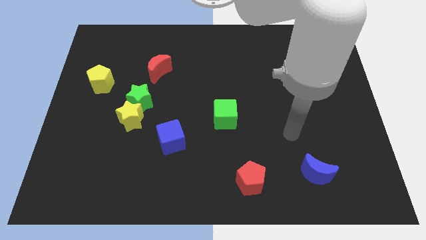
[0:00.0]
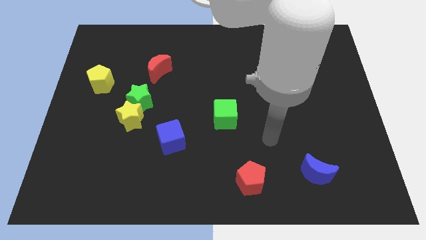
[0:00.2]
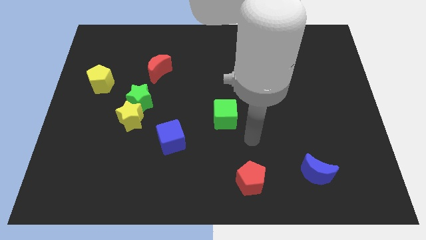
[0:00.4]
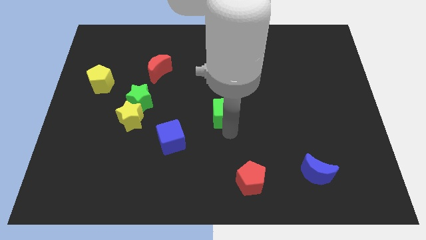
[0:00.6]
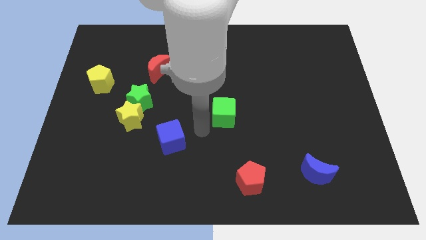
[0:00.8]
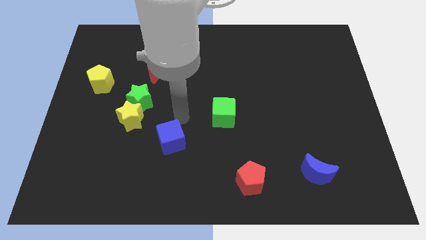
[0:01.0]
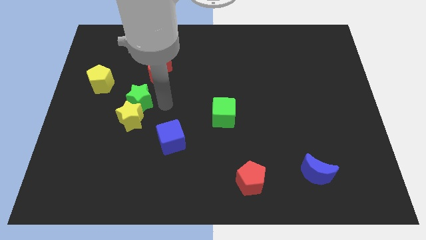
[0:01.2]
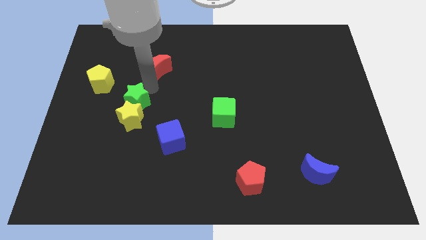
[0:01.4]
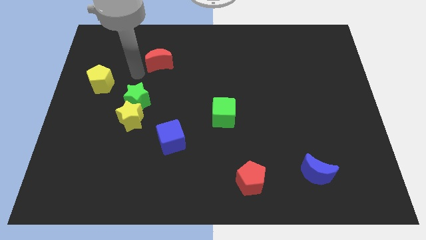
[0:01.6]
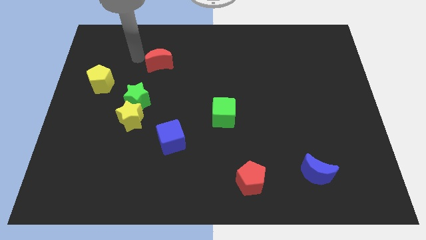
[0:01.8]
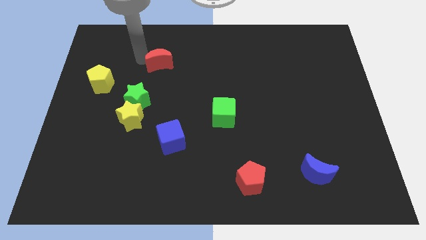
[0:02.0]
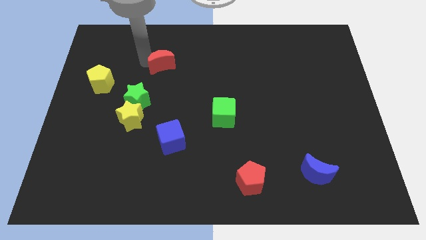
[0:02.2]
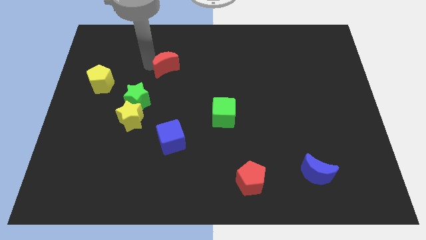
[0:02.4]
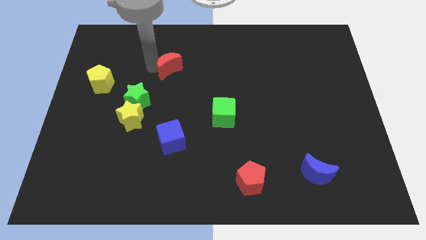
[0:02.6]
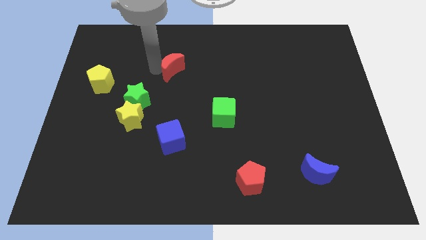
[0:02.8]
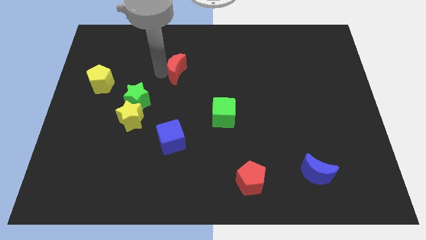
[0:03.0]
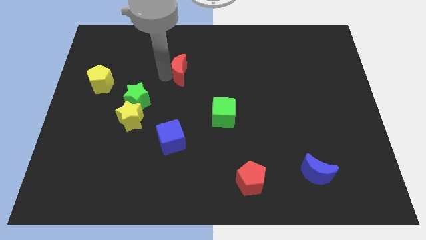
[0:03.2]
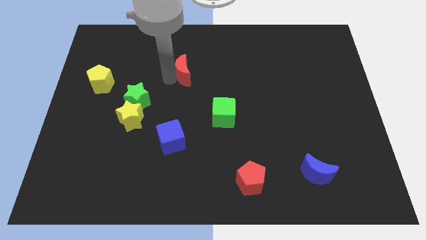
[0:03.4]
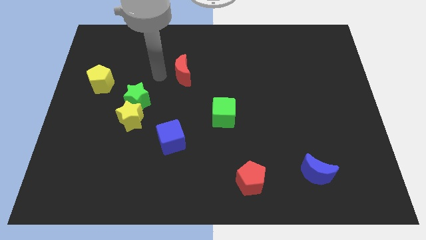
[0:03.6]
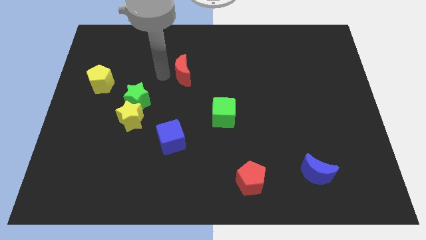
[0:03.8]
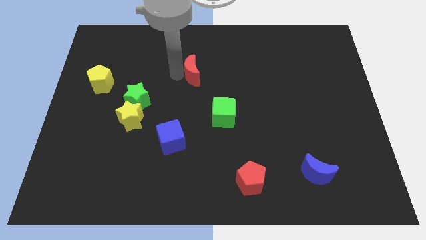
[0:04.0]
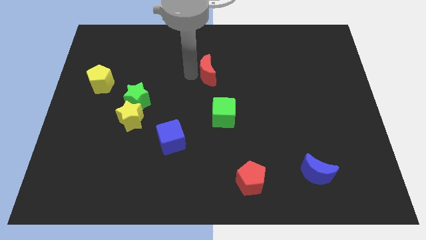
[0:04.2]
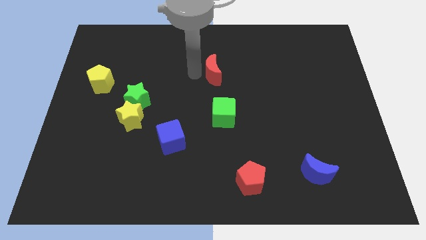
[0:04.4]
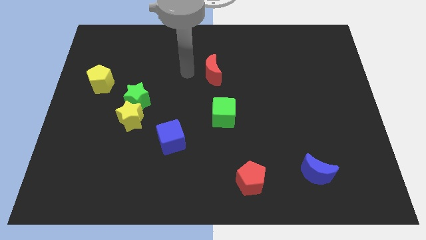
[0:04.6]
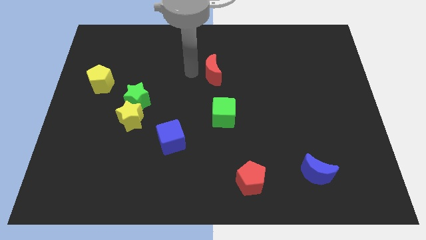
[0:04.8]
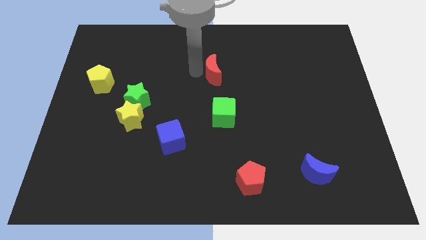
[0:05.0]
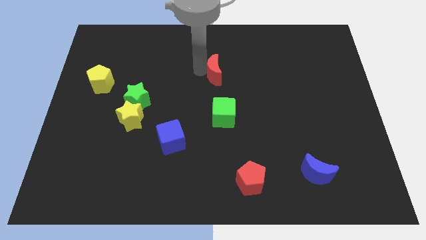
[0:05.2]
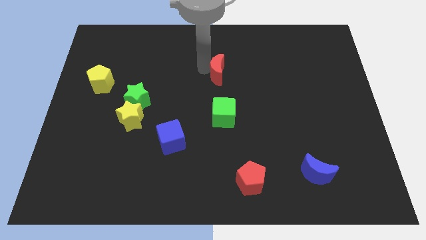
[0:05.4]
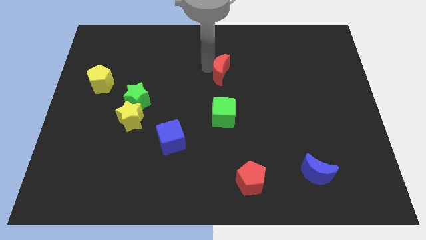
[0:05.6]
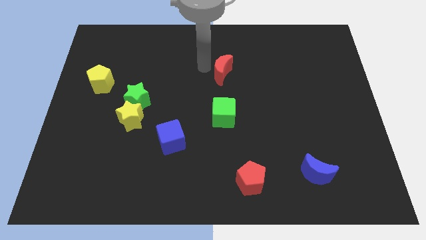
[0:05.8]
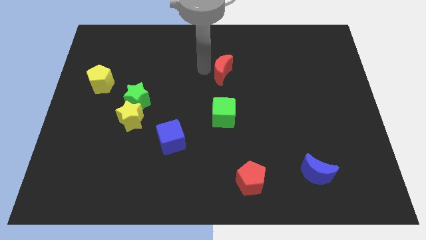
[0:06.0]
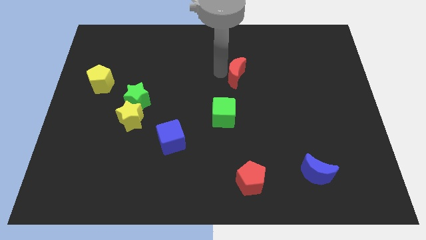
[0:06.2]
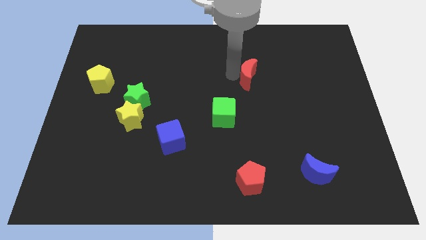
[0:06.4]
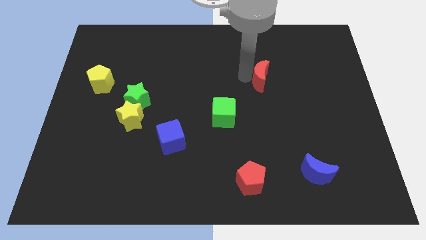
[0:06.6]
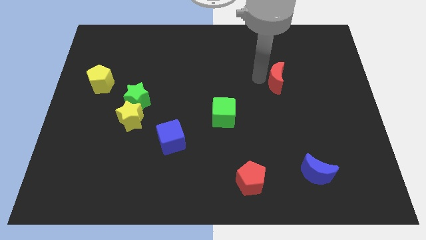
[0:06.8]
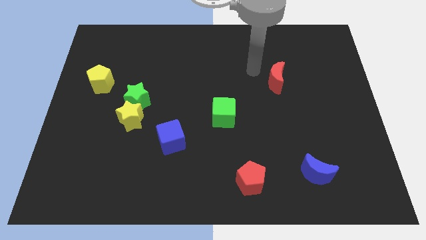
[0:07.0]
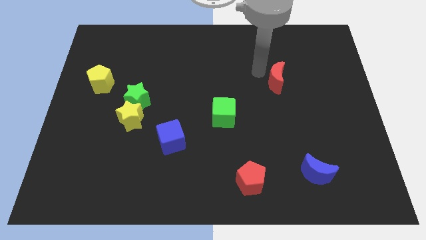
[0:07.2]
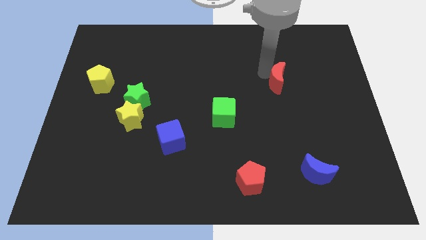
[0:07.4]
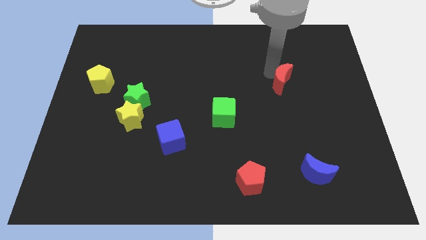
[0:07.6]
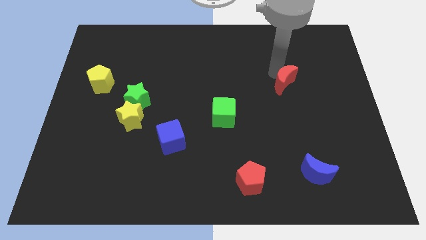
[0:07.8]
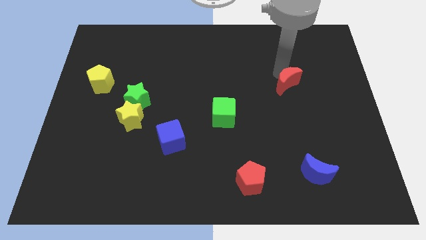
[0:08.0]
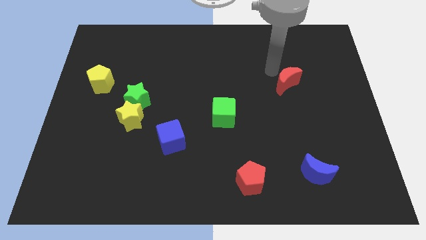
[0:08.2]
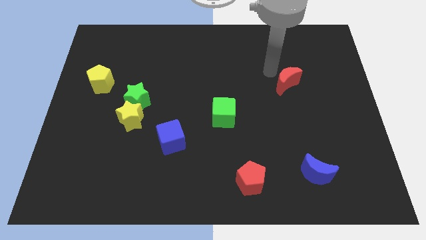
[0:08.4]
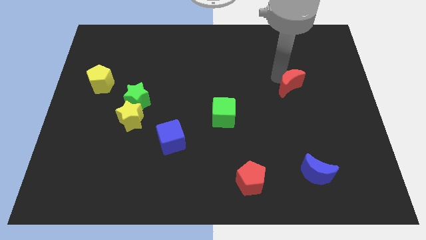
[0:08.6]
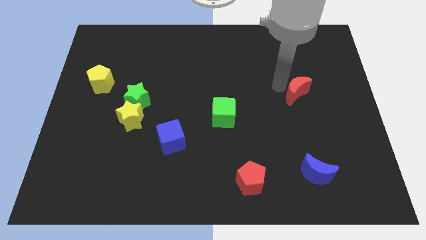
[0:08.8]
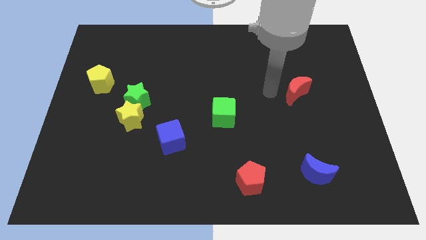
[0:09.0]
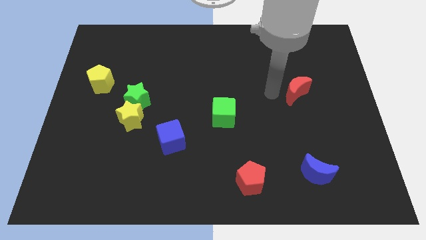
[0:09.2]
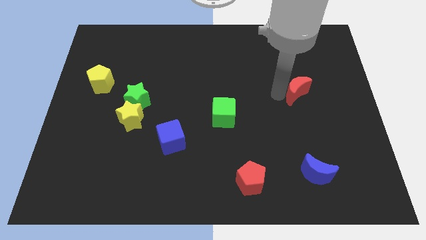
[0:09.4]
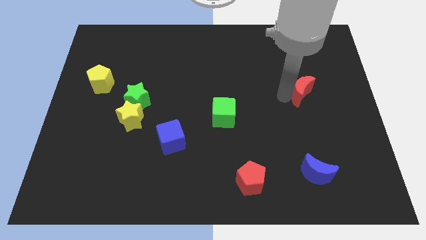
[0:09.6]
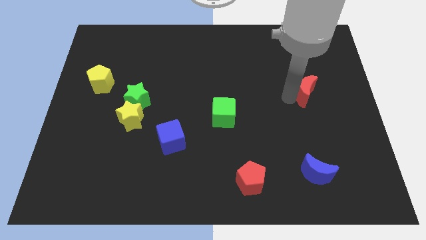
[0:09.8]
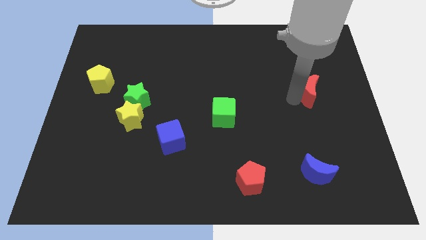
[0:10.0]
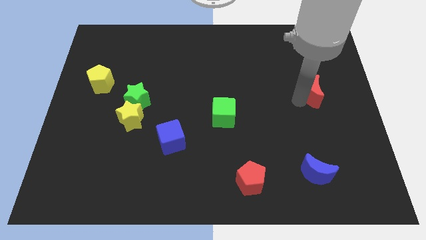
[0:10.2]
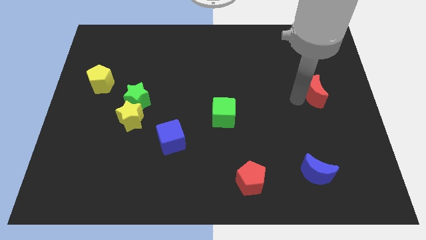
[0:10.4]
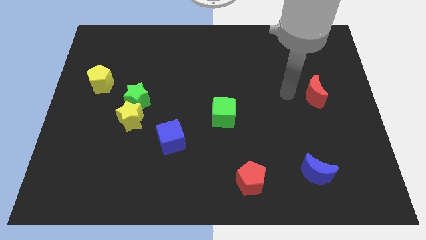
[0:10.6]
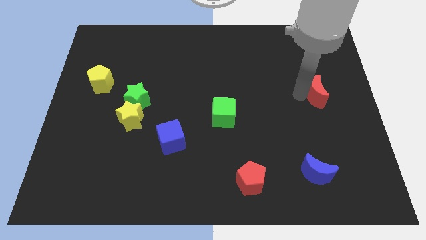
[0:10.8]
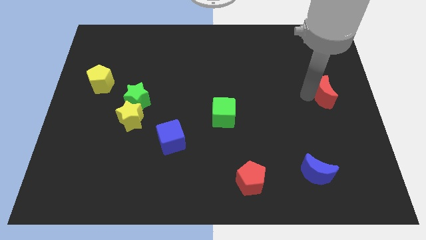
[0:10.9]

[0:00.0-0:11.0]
put the red moon to the right side of the board

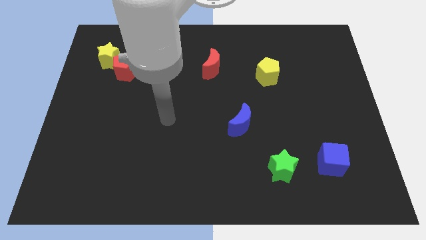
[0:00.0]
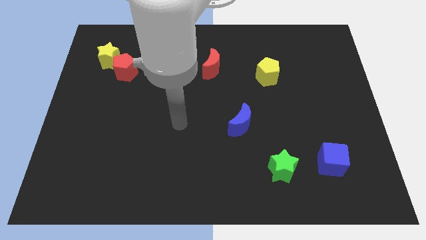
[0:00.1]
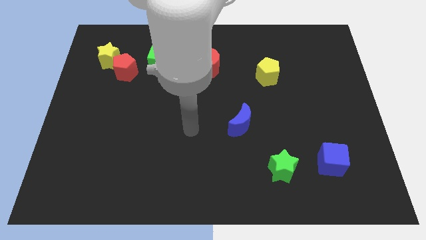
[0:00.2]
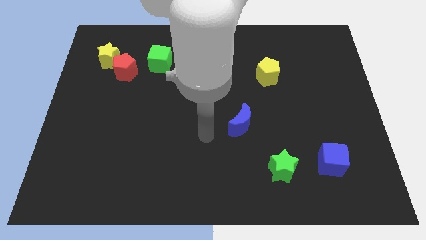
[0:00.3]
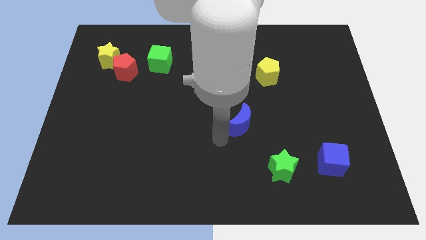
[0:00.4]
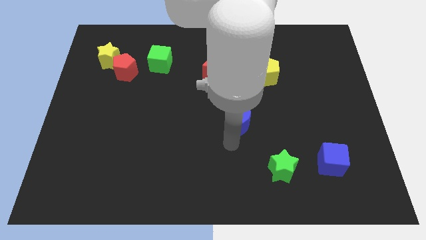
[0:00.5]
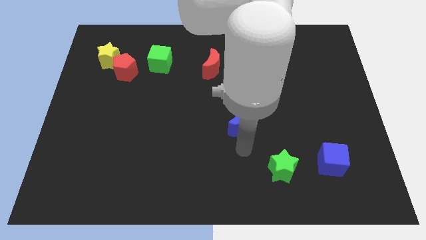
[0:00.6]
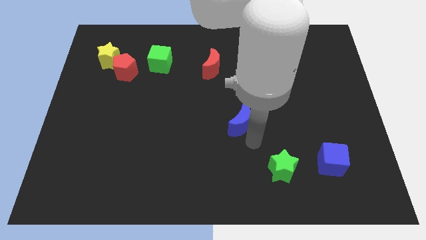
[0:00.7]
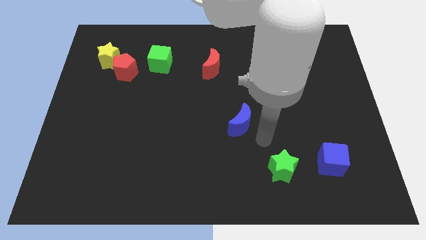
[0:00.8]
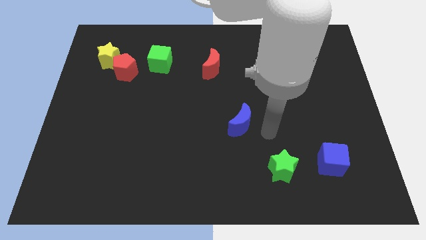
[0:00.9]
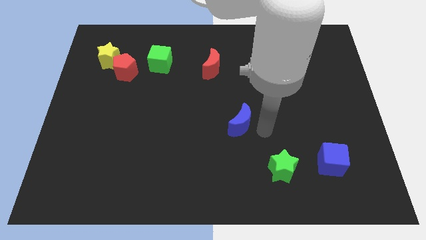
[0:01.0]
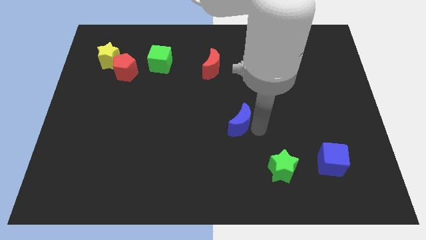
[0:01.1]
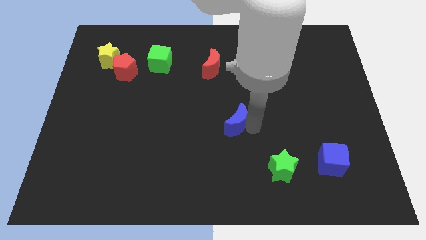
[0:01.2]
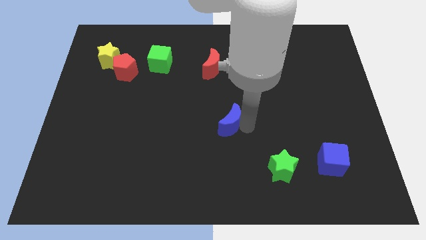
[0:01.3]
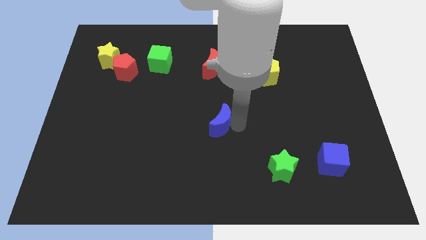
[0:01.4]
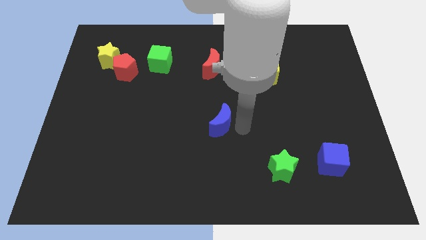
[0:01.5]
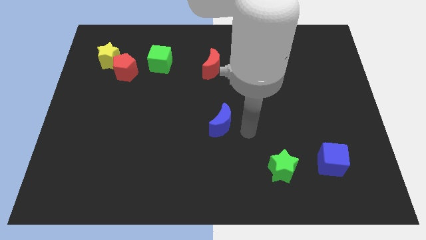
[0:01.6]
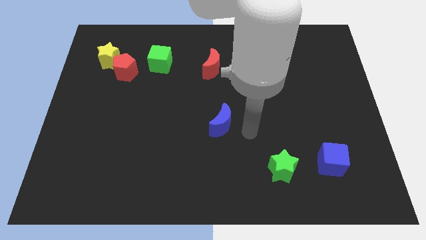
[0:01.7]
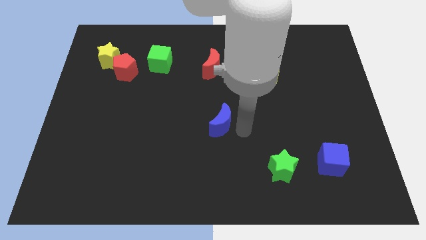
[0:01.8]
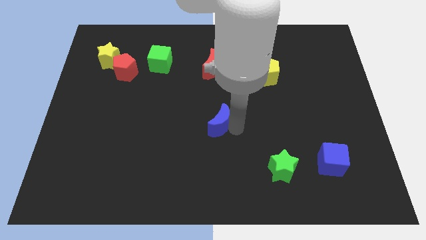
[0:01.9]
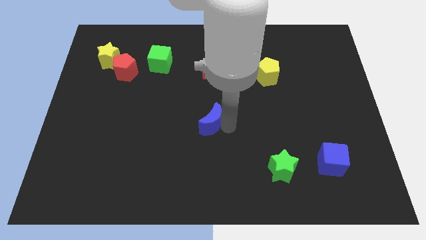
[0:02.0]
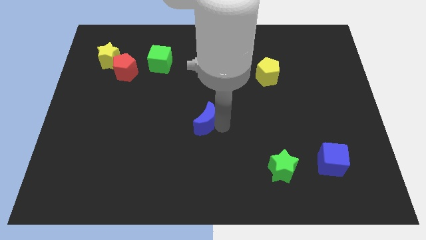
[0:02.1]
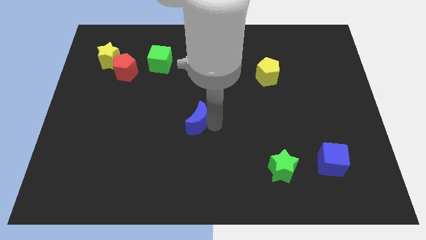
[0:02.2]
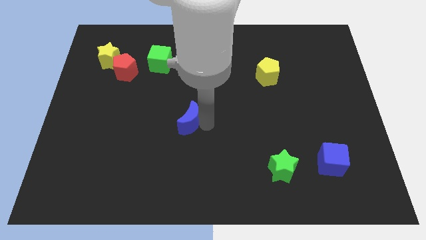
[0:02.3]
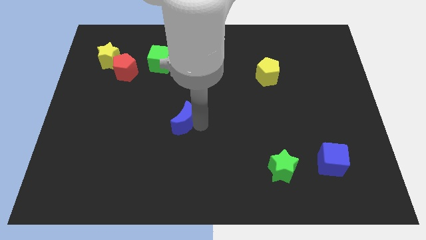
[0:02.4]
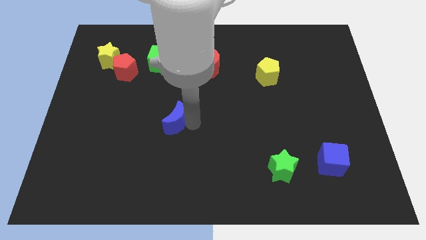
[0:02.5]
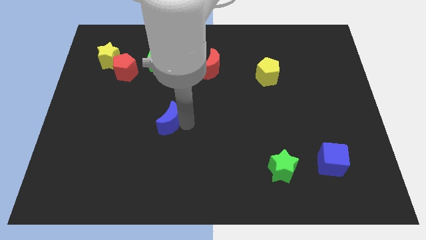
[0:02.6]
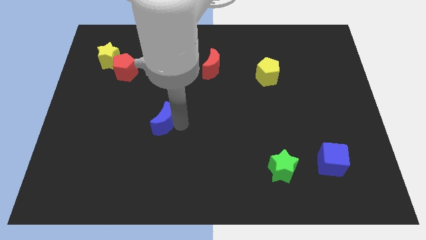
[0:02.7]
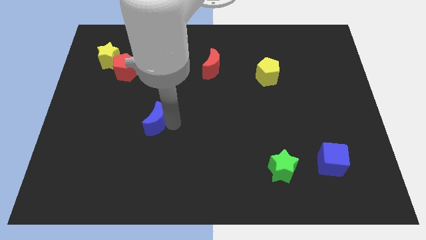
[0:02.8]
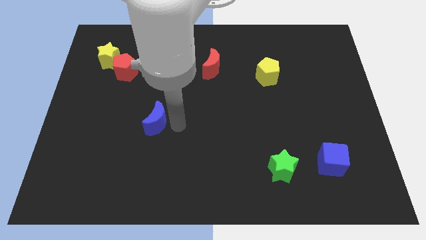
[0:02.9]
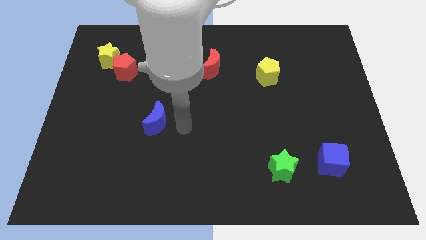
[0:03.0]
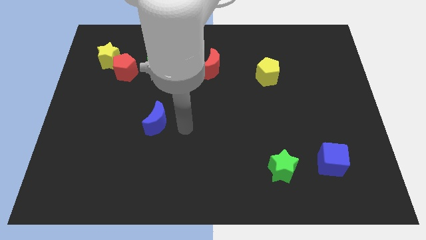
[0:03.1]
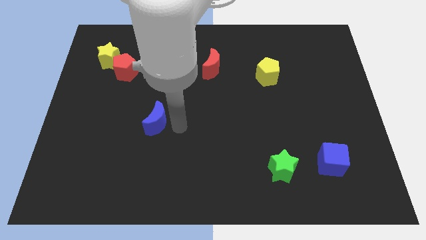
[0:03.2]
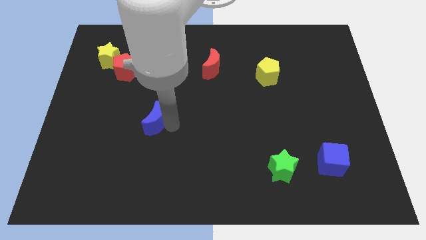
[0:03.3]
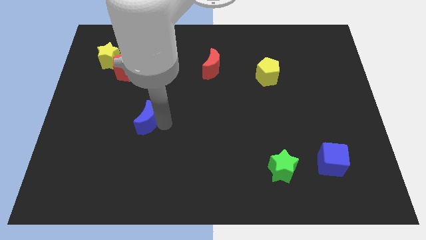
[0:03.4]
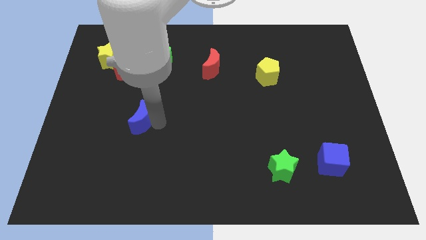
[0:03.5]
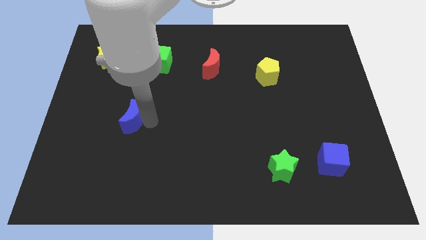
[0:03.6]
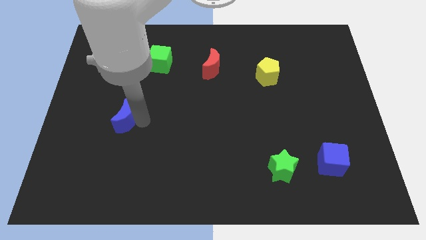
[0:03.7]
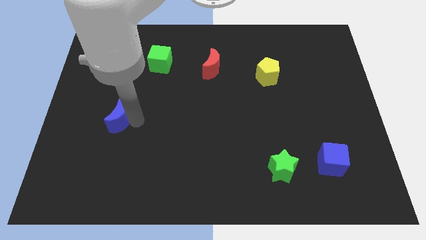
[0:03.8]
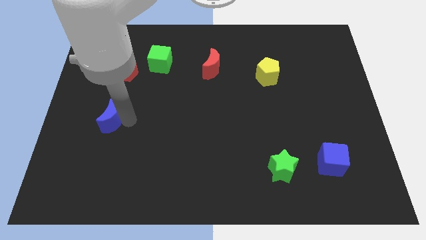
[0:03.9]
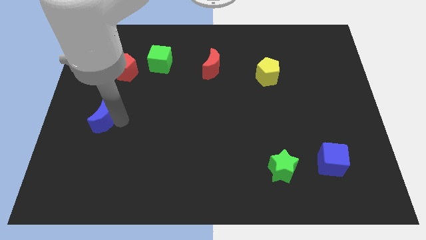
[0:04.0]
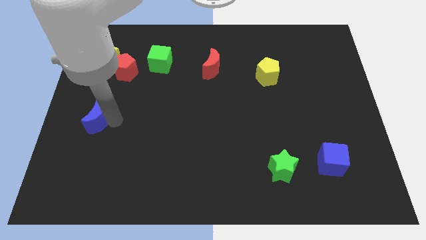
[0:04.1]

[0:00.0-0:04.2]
slide the blue moon to the left side of the board
